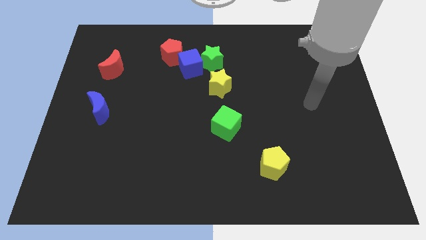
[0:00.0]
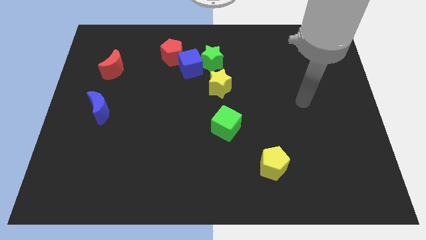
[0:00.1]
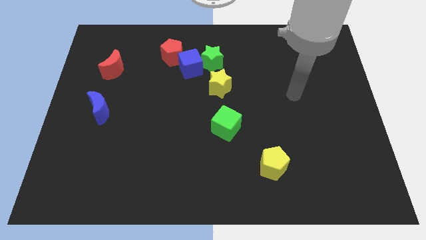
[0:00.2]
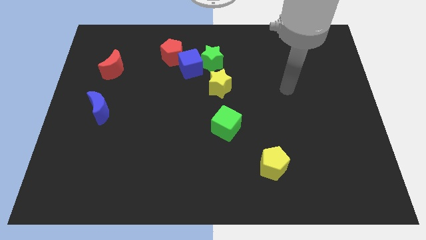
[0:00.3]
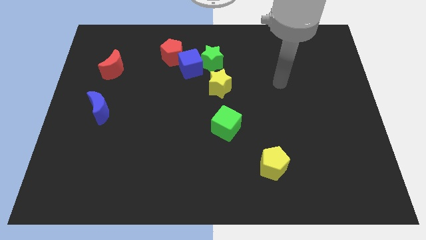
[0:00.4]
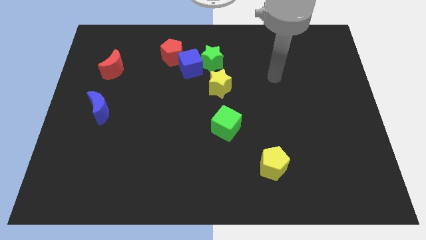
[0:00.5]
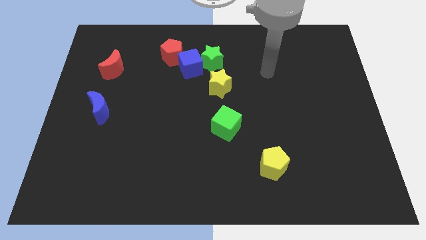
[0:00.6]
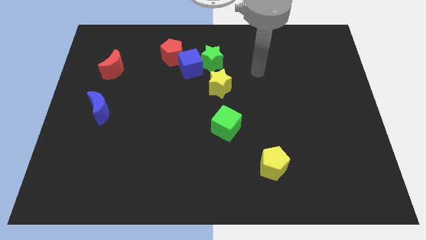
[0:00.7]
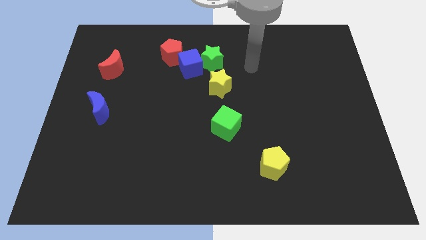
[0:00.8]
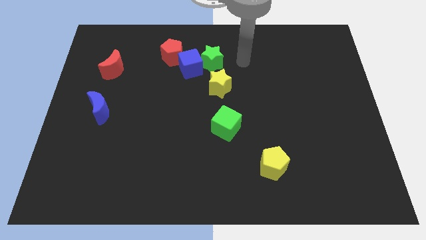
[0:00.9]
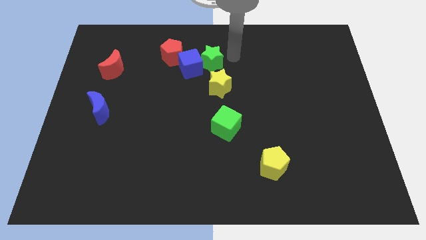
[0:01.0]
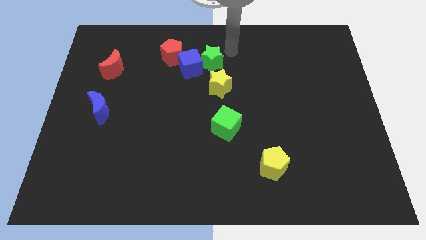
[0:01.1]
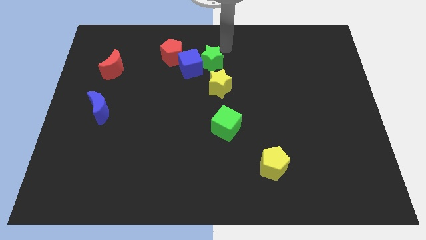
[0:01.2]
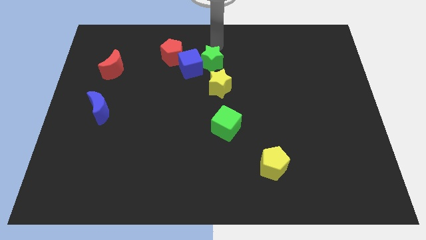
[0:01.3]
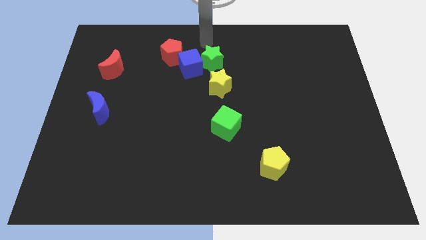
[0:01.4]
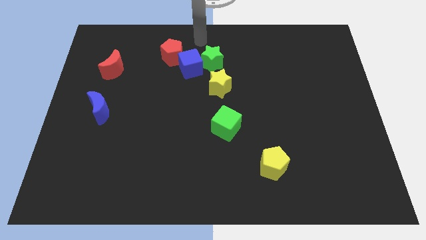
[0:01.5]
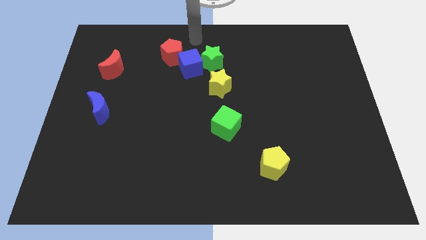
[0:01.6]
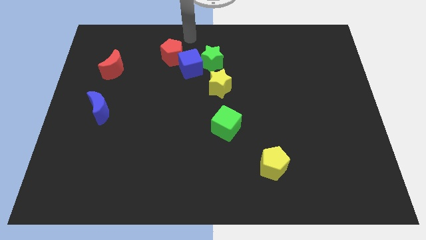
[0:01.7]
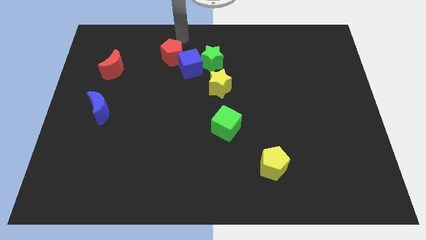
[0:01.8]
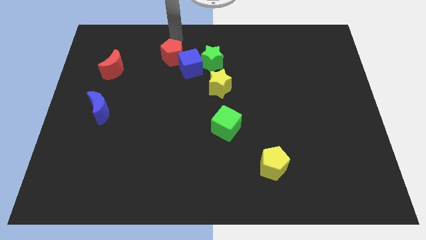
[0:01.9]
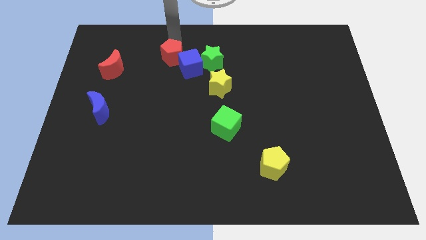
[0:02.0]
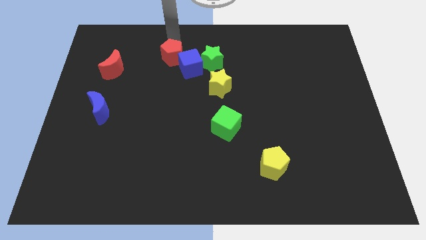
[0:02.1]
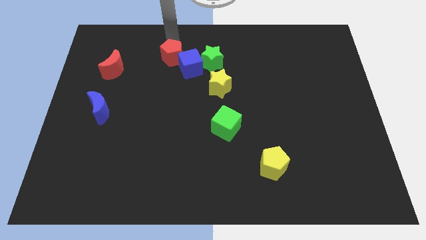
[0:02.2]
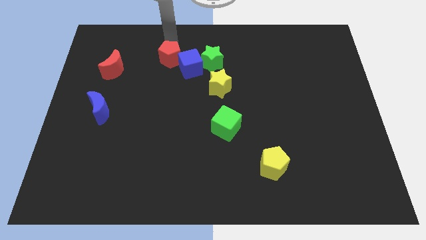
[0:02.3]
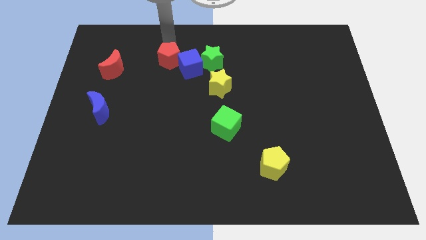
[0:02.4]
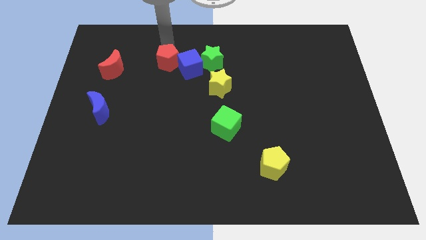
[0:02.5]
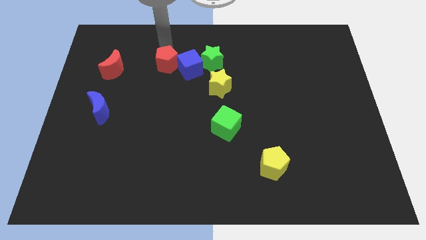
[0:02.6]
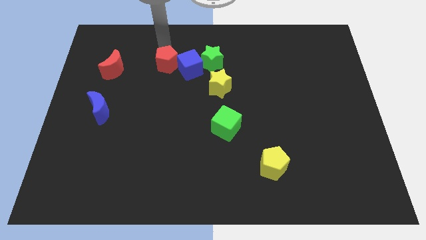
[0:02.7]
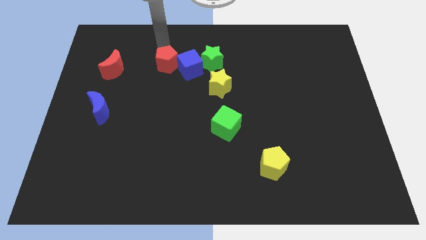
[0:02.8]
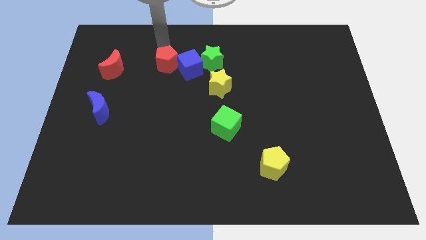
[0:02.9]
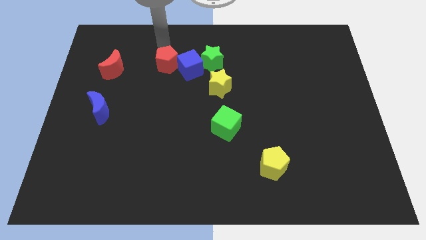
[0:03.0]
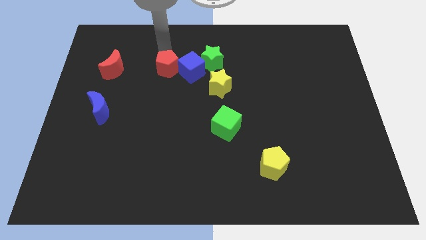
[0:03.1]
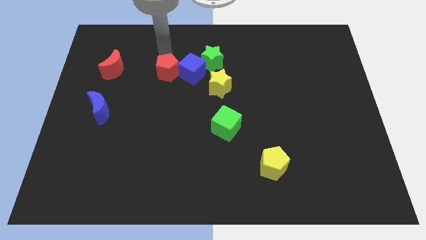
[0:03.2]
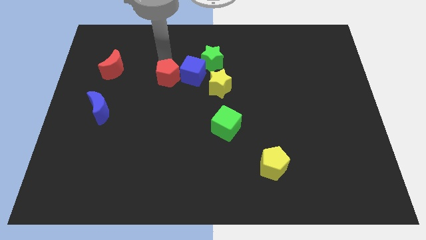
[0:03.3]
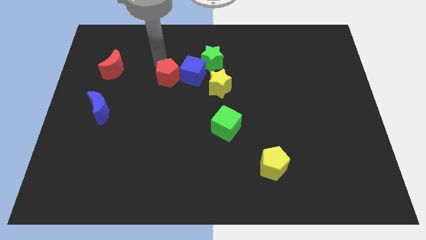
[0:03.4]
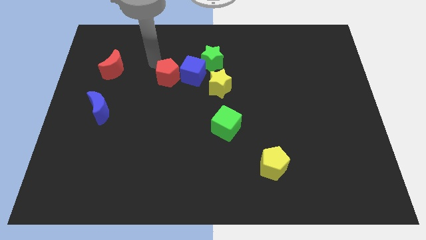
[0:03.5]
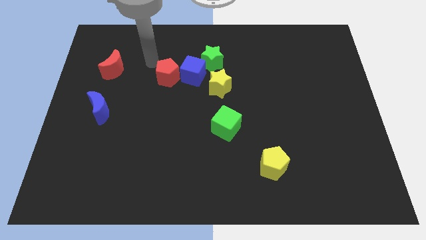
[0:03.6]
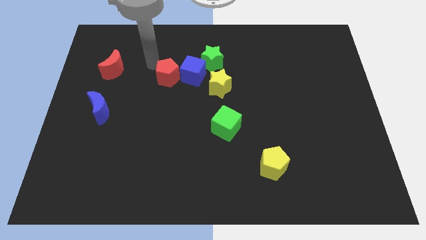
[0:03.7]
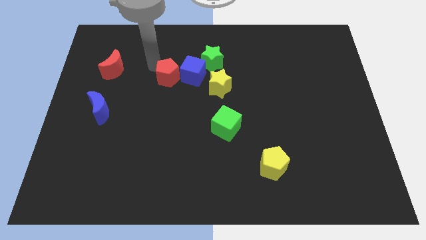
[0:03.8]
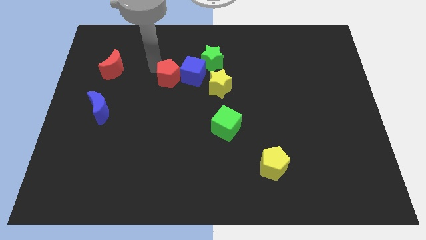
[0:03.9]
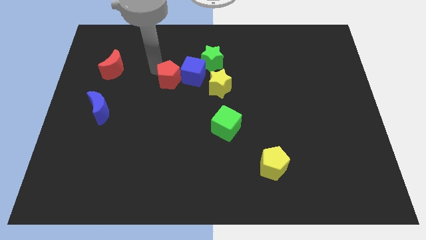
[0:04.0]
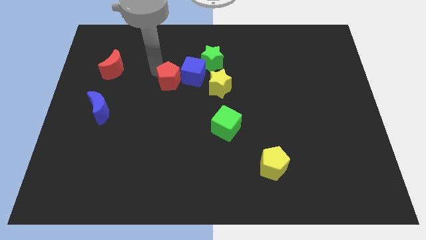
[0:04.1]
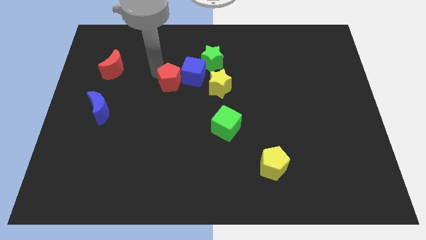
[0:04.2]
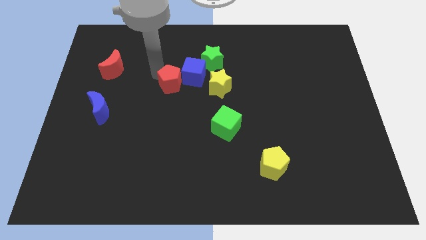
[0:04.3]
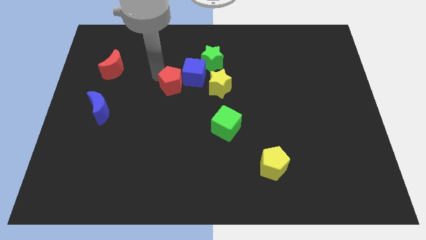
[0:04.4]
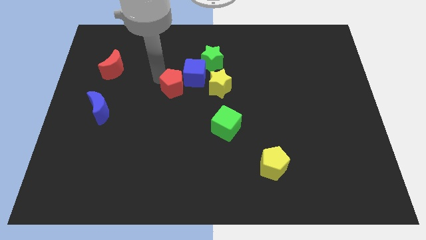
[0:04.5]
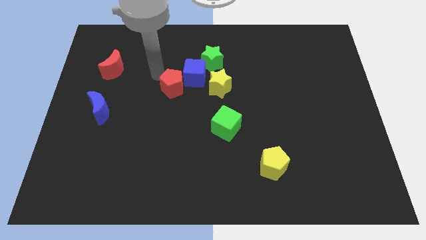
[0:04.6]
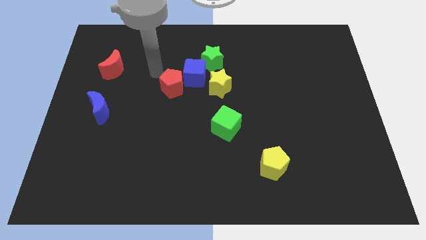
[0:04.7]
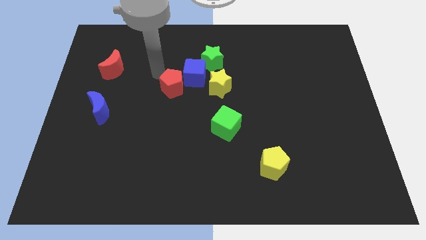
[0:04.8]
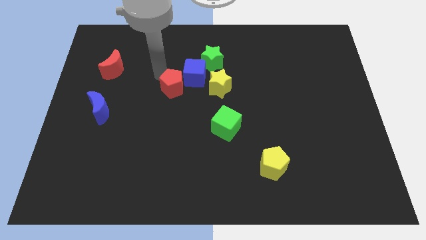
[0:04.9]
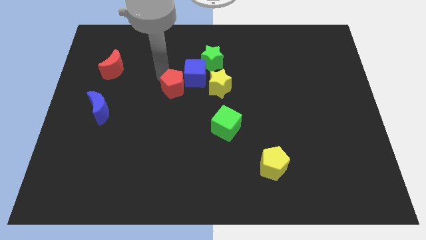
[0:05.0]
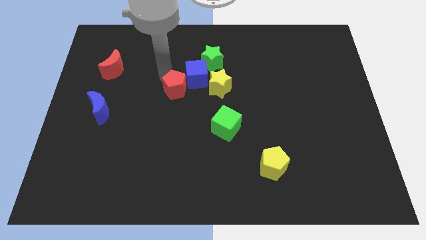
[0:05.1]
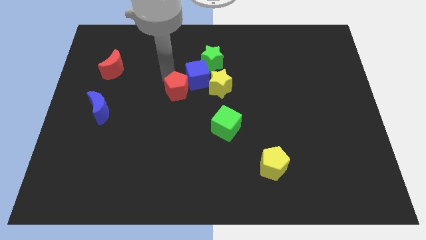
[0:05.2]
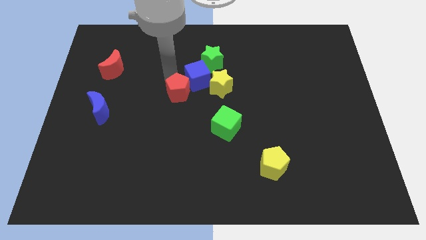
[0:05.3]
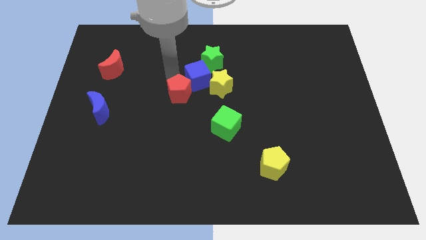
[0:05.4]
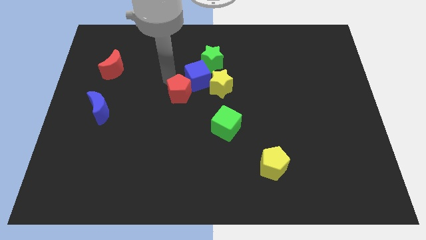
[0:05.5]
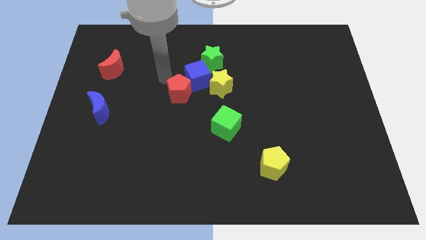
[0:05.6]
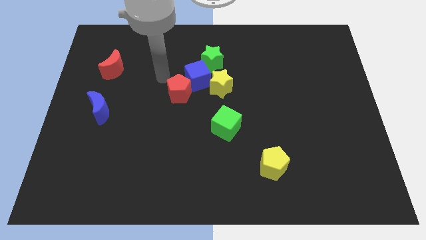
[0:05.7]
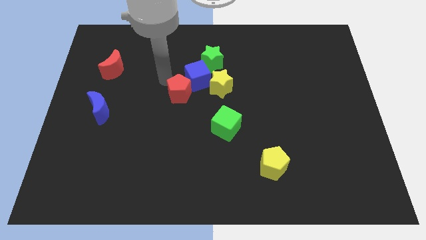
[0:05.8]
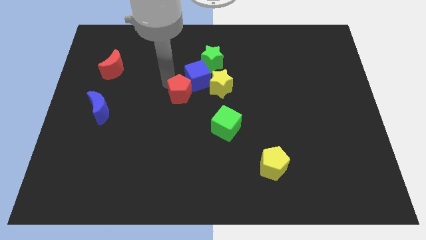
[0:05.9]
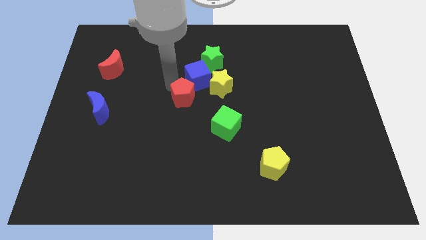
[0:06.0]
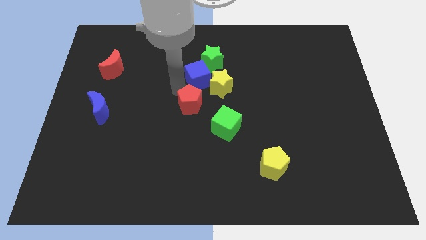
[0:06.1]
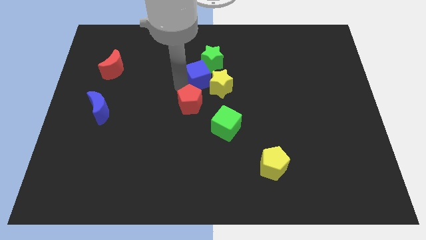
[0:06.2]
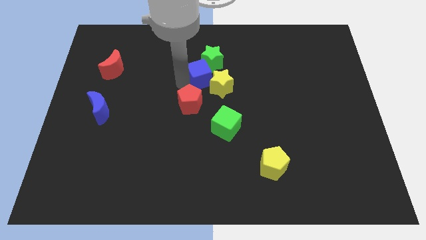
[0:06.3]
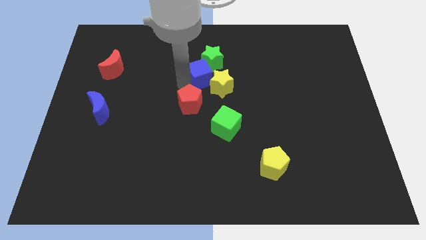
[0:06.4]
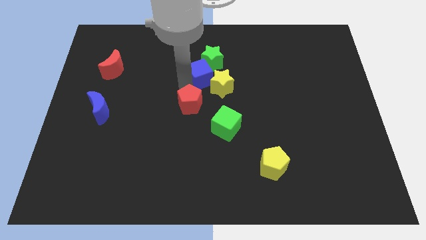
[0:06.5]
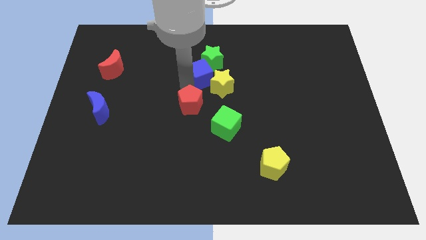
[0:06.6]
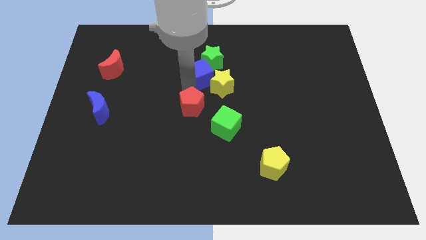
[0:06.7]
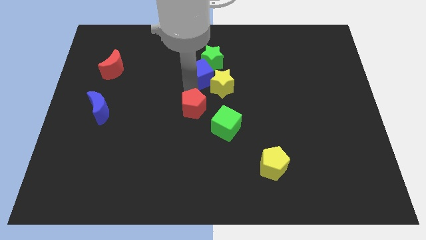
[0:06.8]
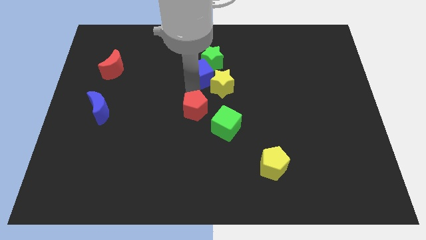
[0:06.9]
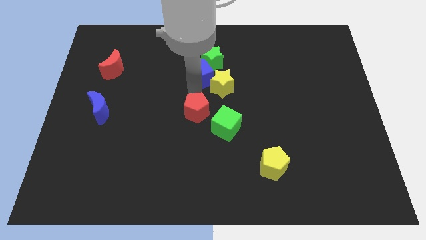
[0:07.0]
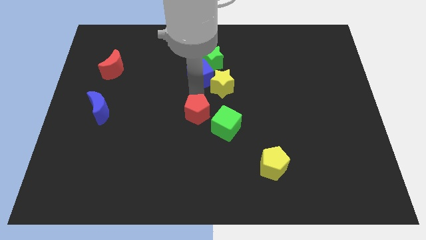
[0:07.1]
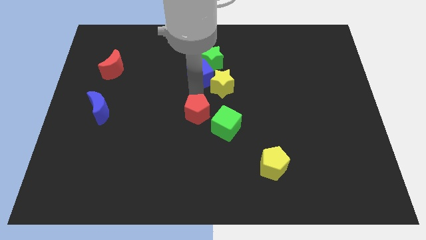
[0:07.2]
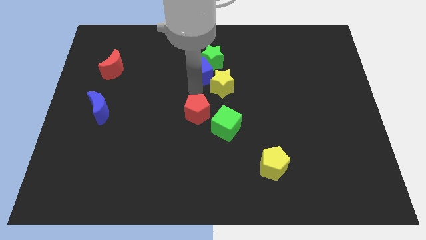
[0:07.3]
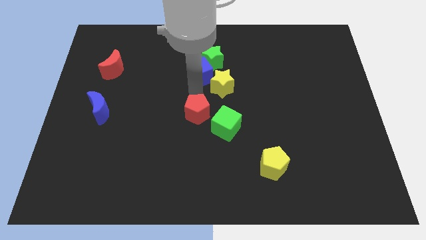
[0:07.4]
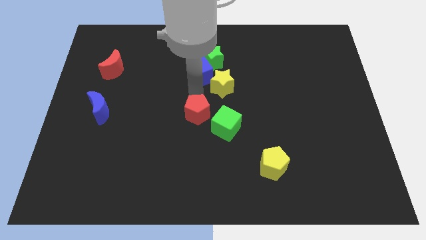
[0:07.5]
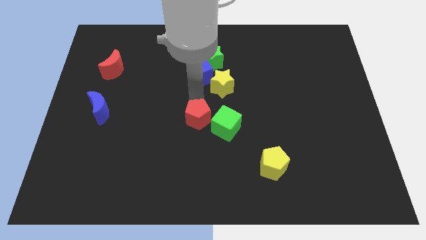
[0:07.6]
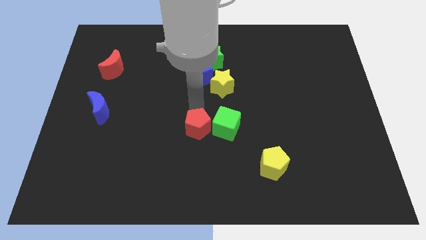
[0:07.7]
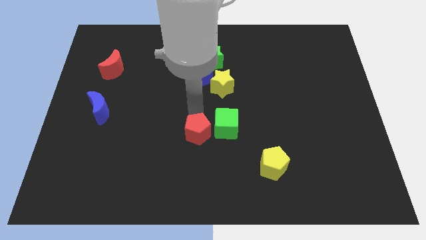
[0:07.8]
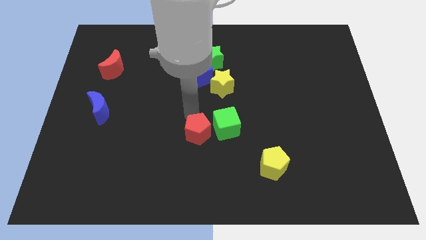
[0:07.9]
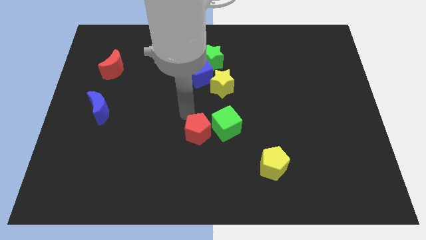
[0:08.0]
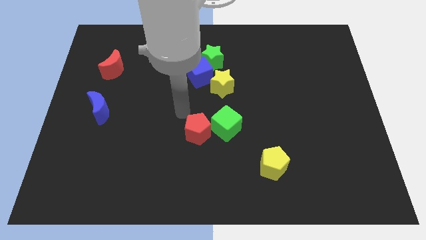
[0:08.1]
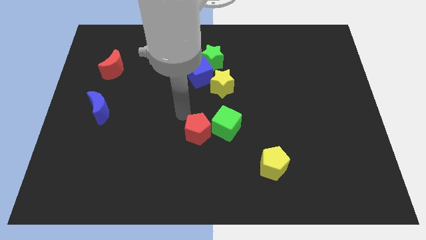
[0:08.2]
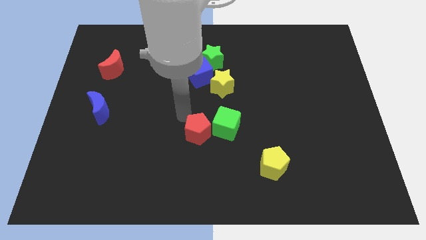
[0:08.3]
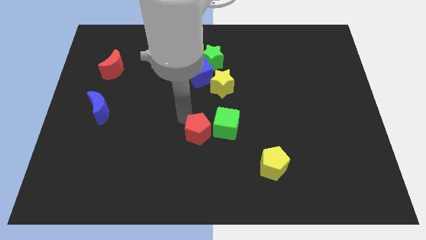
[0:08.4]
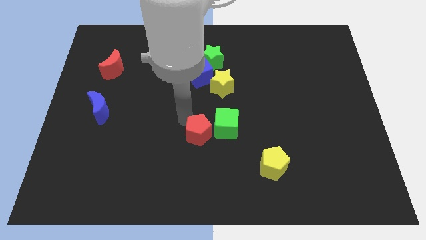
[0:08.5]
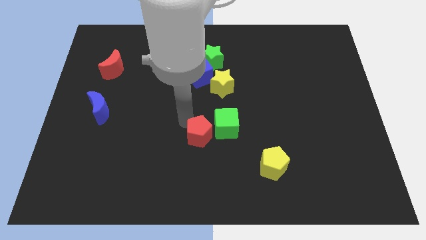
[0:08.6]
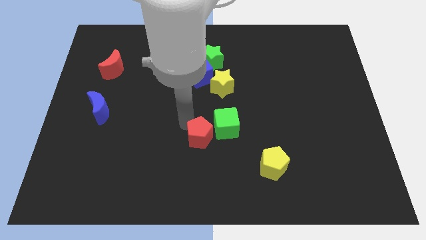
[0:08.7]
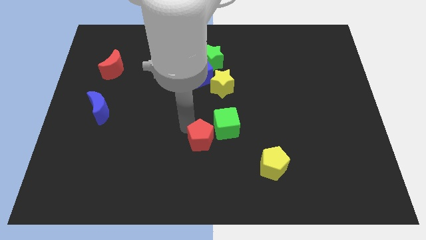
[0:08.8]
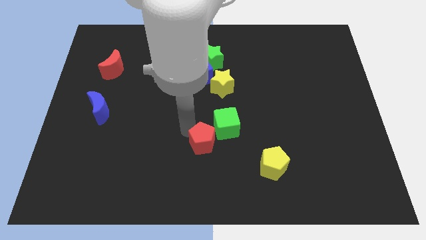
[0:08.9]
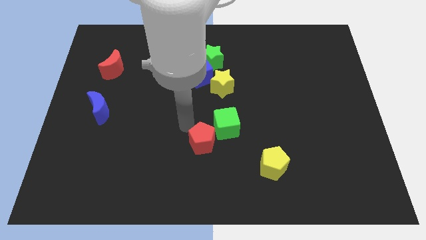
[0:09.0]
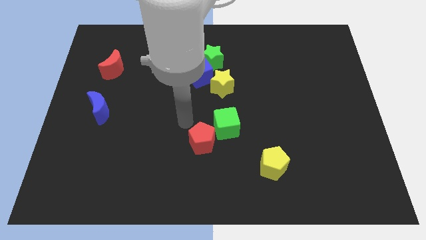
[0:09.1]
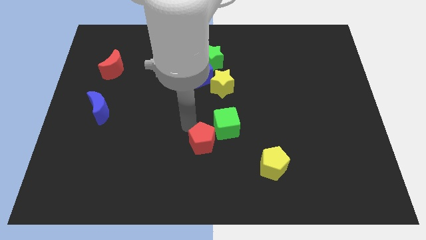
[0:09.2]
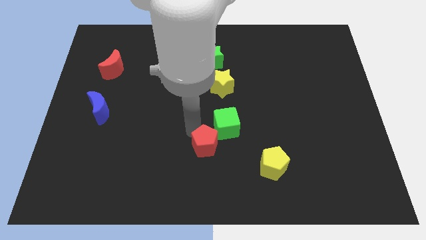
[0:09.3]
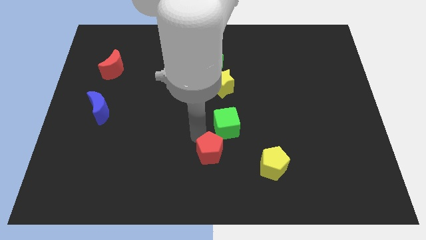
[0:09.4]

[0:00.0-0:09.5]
move the red pentagon left of the yellow pentagon
